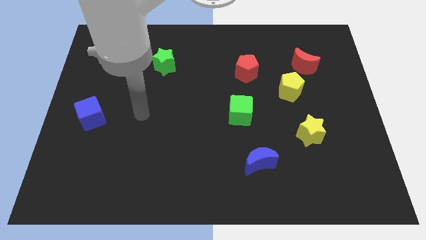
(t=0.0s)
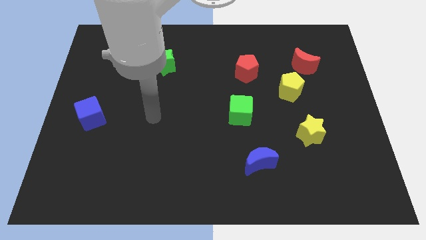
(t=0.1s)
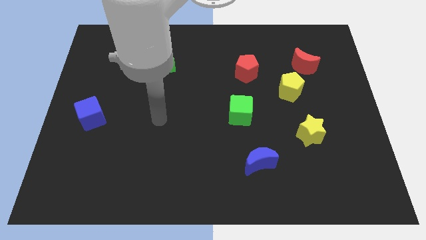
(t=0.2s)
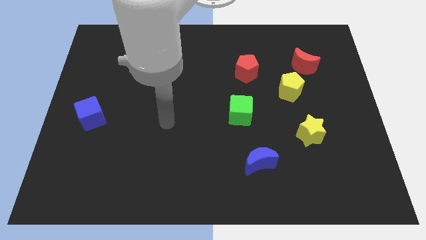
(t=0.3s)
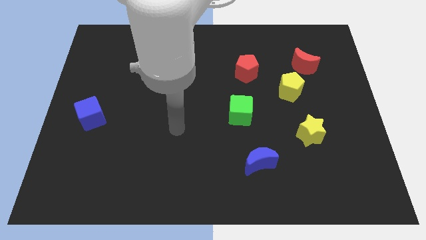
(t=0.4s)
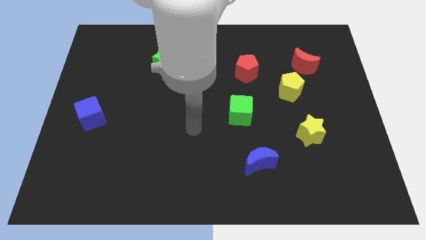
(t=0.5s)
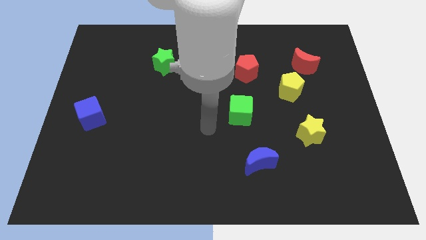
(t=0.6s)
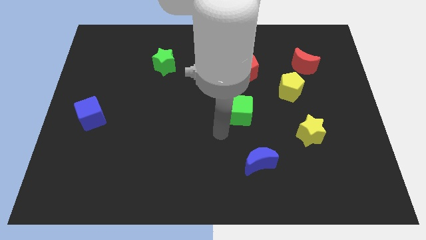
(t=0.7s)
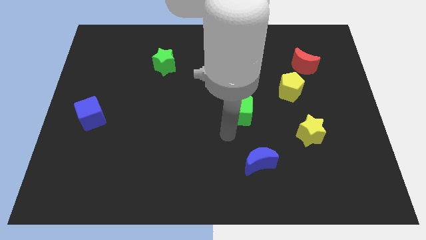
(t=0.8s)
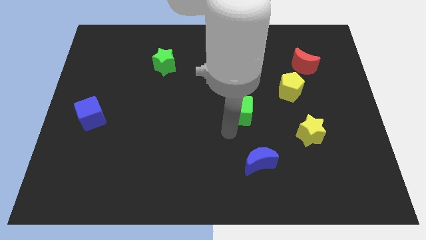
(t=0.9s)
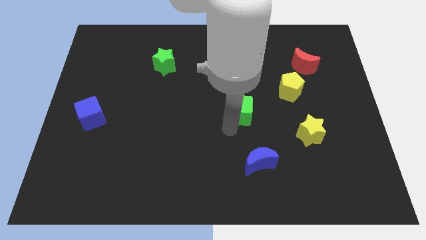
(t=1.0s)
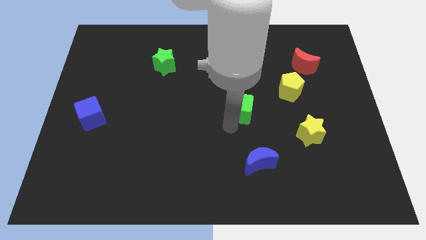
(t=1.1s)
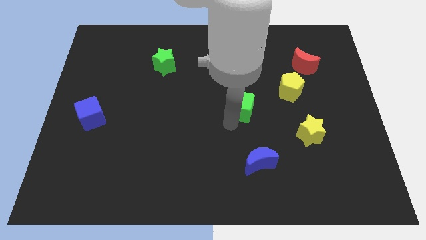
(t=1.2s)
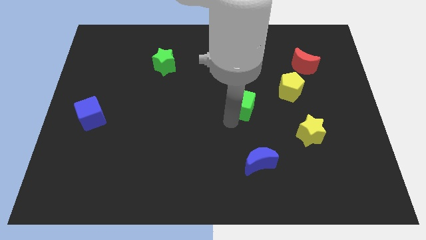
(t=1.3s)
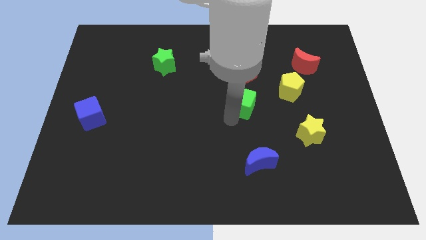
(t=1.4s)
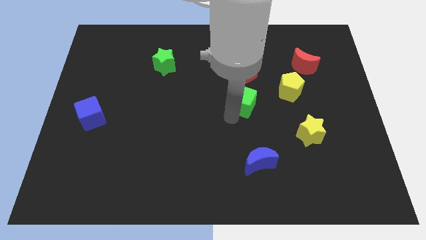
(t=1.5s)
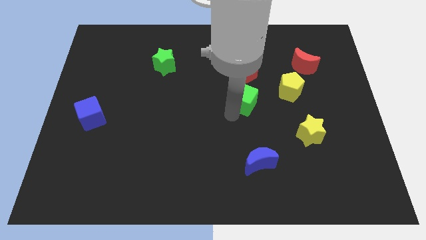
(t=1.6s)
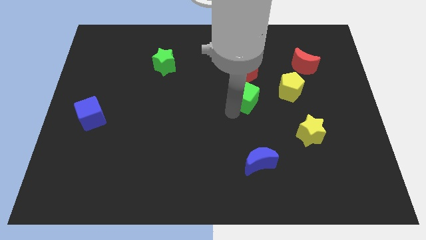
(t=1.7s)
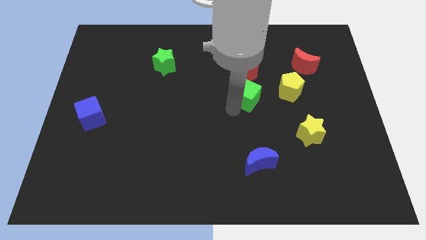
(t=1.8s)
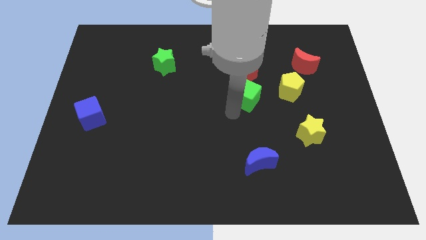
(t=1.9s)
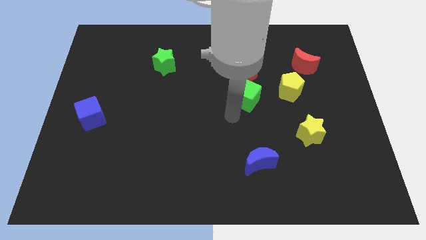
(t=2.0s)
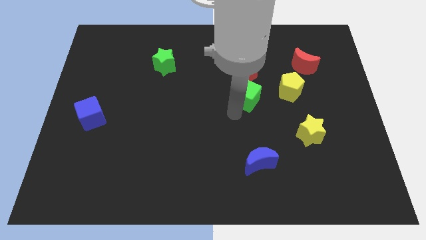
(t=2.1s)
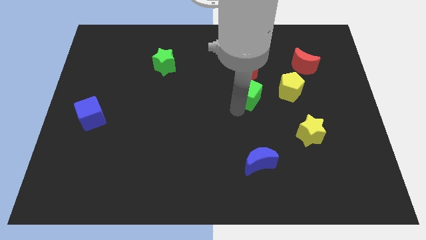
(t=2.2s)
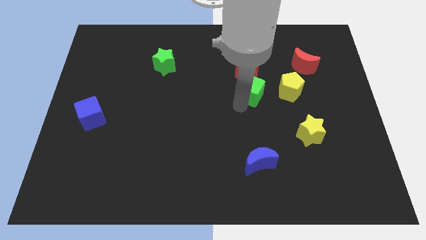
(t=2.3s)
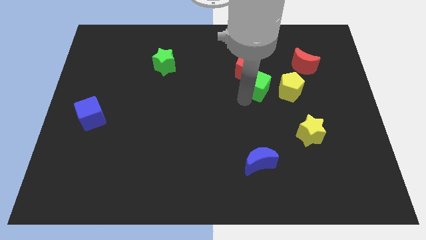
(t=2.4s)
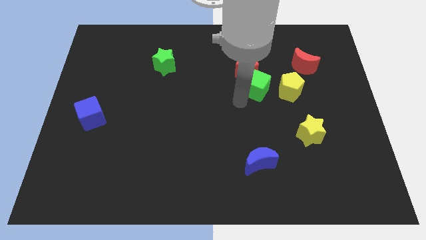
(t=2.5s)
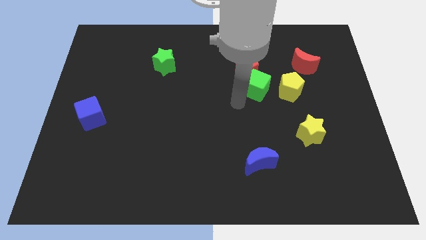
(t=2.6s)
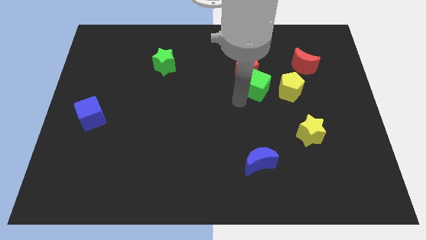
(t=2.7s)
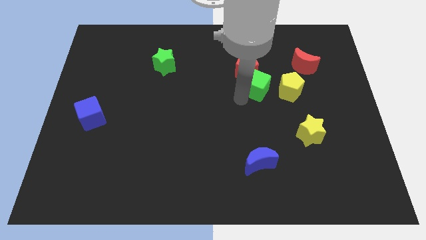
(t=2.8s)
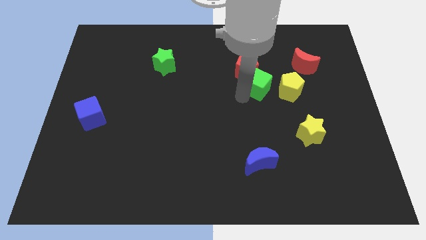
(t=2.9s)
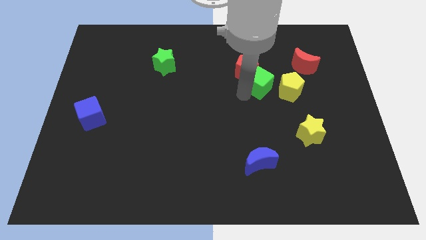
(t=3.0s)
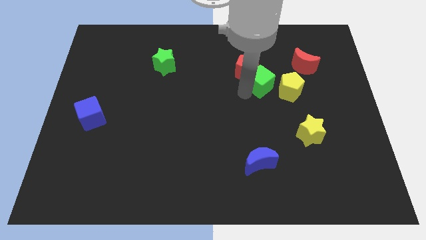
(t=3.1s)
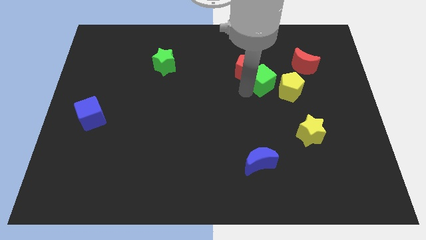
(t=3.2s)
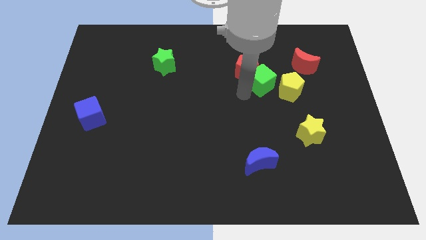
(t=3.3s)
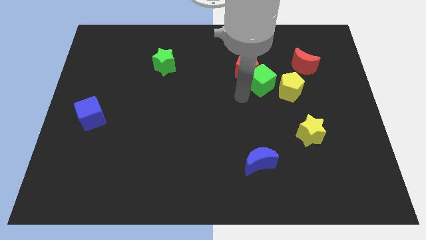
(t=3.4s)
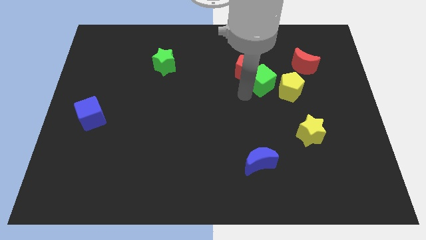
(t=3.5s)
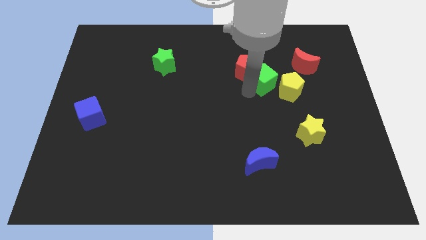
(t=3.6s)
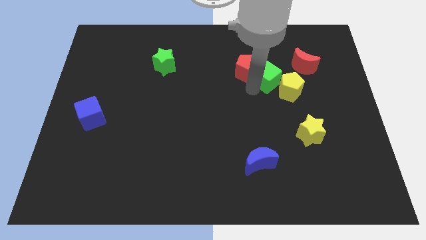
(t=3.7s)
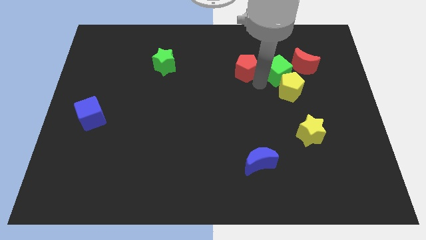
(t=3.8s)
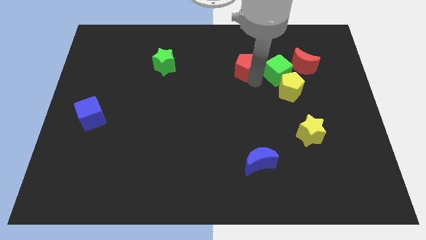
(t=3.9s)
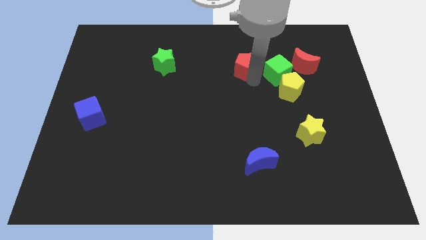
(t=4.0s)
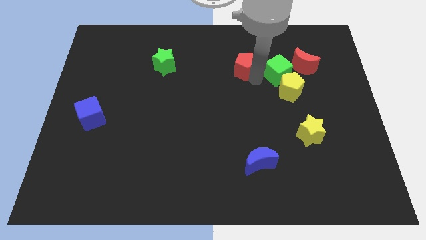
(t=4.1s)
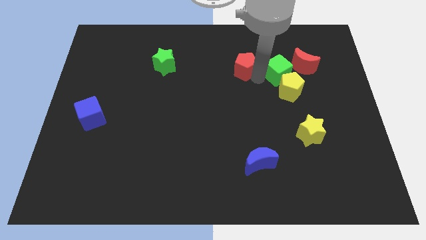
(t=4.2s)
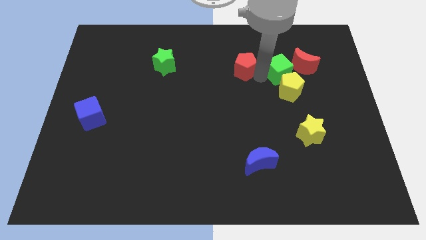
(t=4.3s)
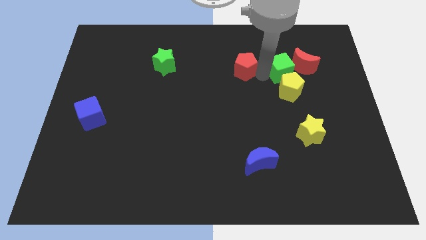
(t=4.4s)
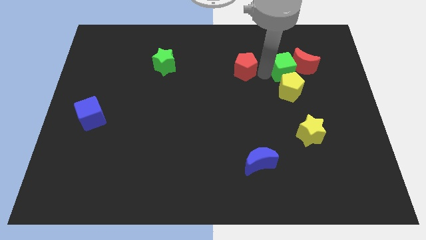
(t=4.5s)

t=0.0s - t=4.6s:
slide the green cube next to the red moon

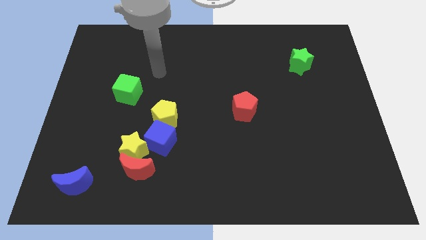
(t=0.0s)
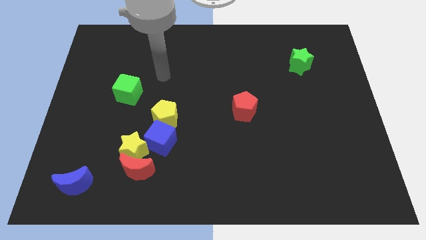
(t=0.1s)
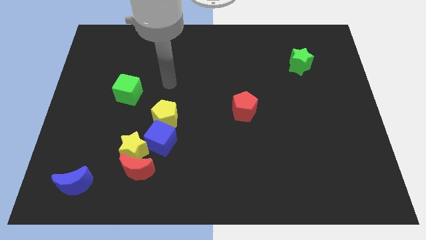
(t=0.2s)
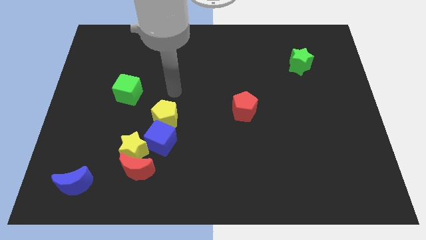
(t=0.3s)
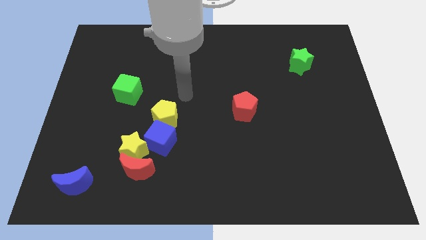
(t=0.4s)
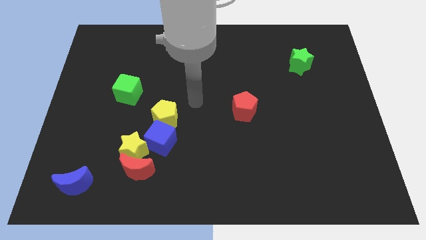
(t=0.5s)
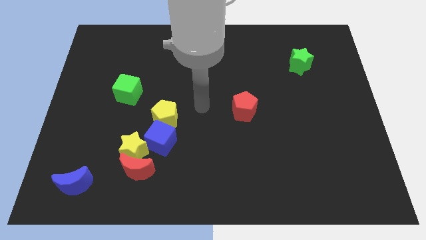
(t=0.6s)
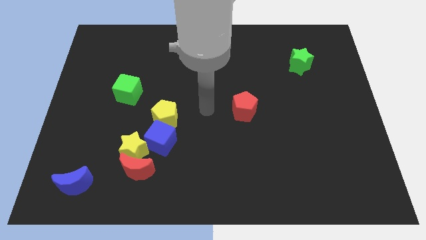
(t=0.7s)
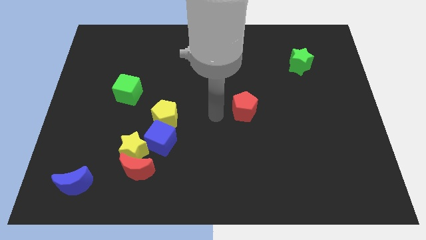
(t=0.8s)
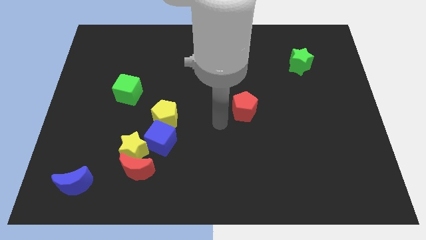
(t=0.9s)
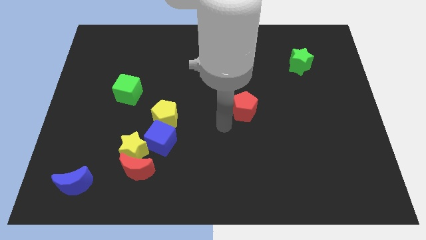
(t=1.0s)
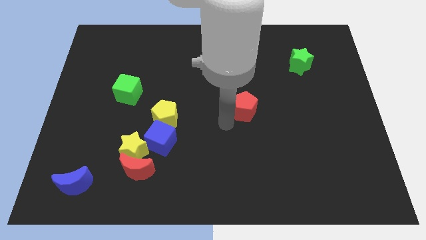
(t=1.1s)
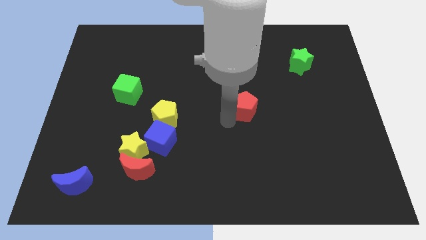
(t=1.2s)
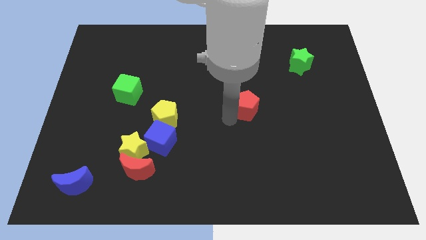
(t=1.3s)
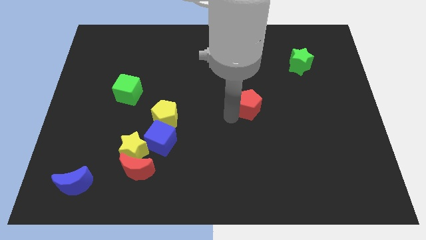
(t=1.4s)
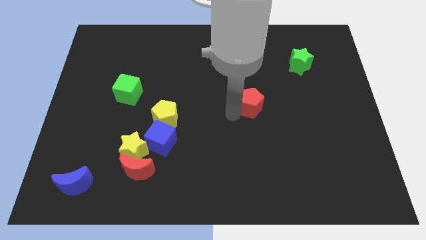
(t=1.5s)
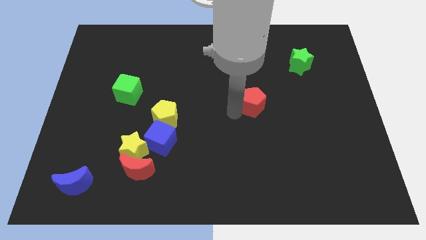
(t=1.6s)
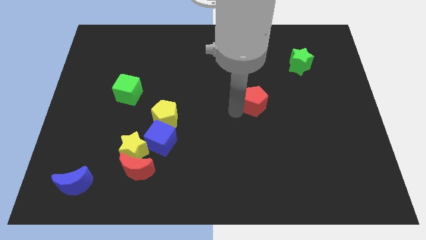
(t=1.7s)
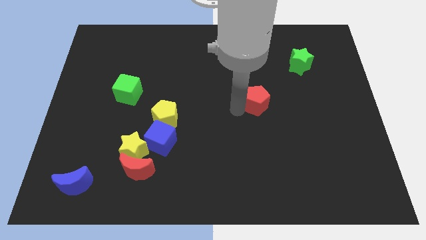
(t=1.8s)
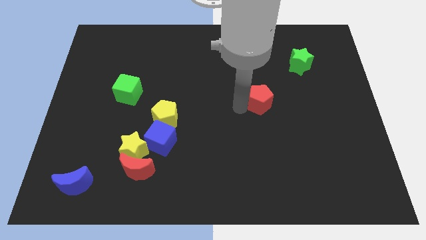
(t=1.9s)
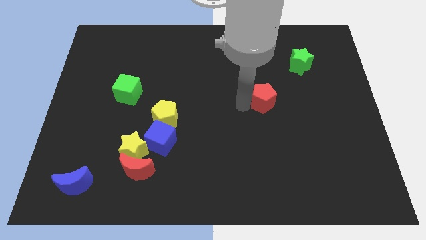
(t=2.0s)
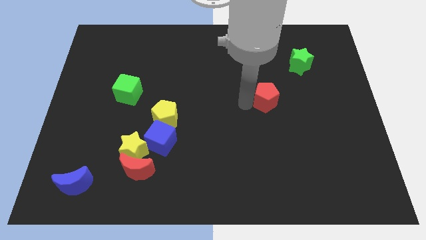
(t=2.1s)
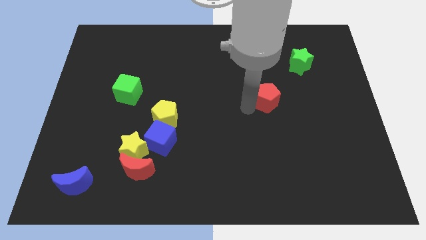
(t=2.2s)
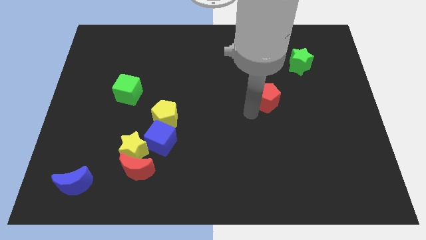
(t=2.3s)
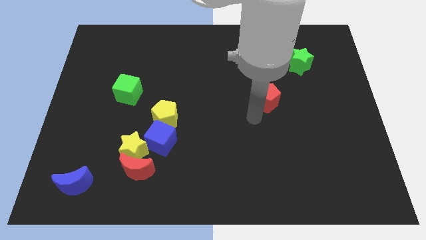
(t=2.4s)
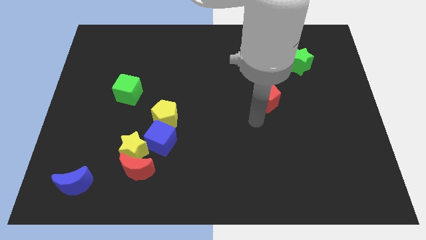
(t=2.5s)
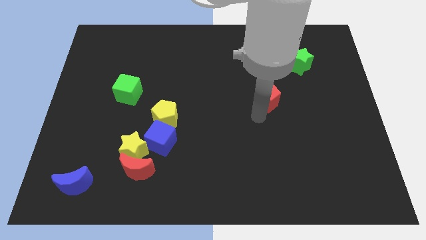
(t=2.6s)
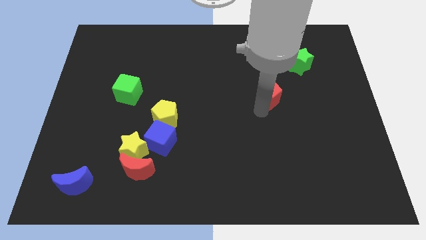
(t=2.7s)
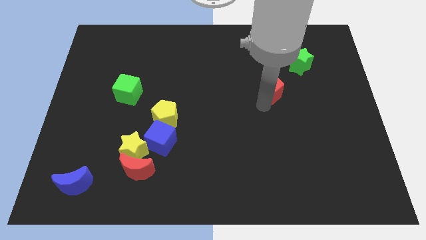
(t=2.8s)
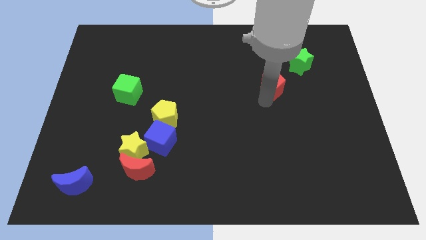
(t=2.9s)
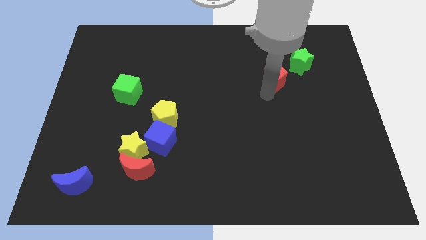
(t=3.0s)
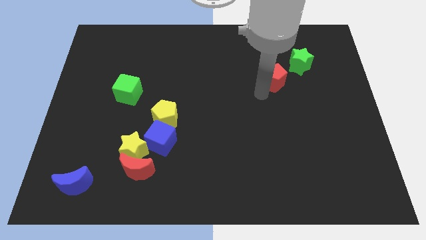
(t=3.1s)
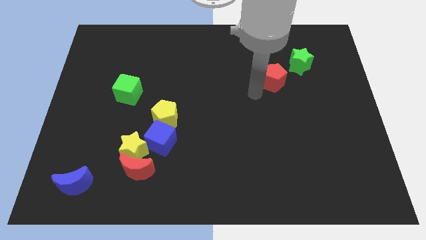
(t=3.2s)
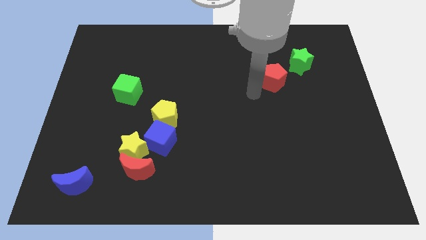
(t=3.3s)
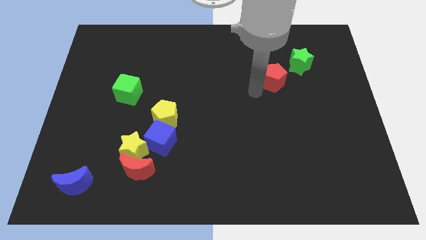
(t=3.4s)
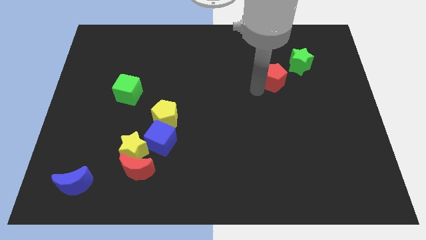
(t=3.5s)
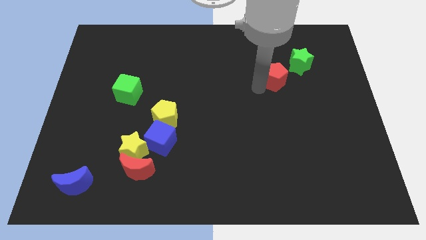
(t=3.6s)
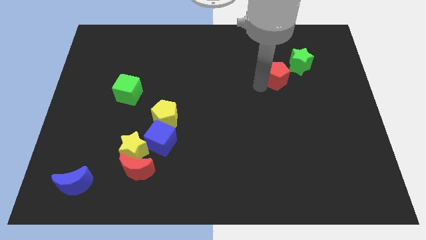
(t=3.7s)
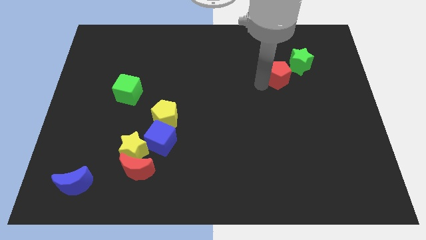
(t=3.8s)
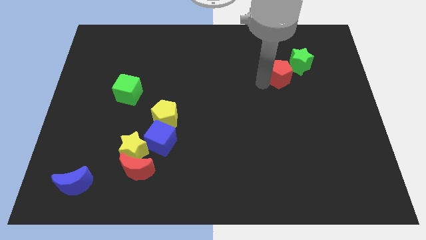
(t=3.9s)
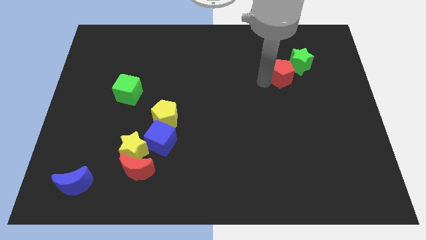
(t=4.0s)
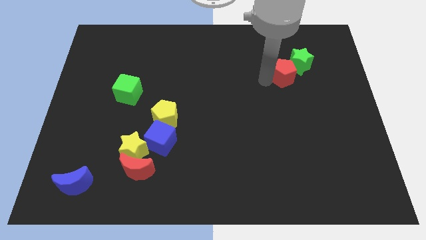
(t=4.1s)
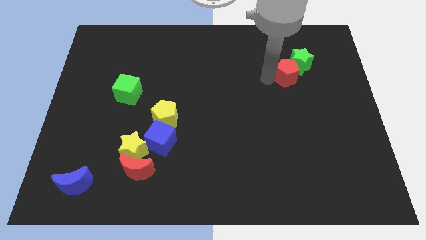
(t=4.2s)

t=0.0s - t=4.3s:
put the red pentagon to the green star
